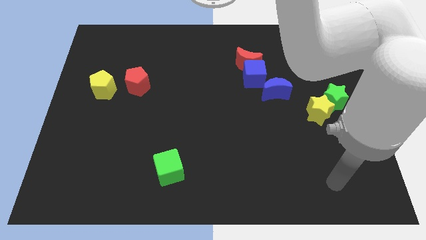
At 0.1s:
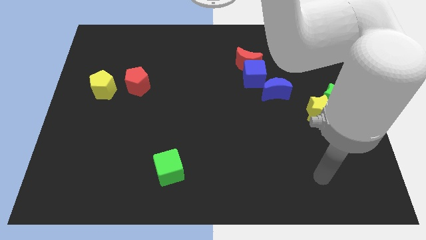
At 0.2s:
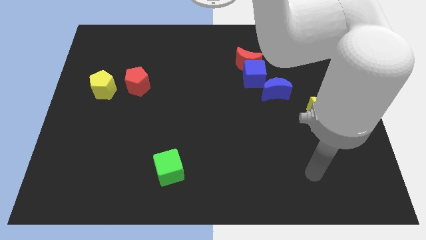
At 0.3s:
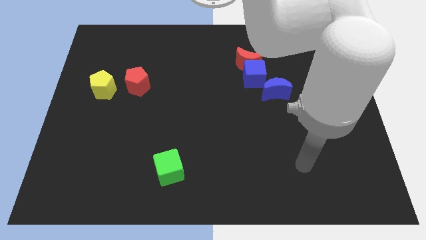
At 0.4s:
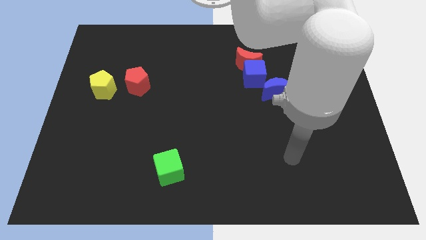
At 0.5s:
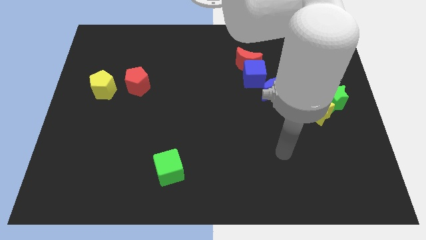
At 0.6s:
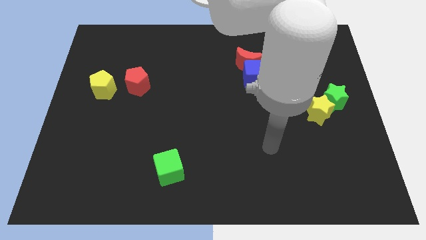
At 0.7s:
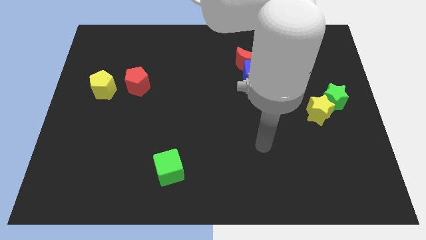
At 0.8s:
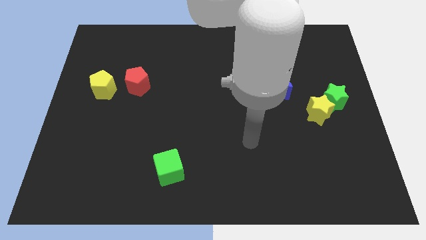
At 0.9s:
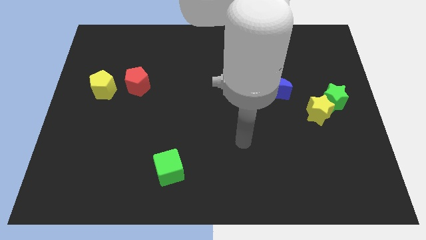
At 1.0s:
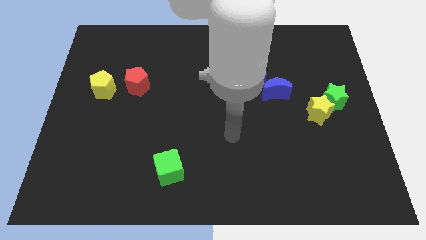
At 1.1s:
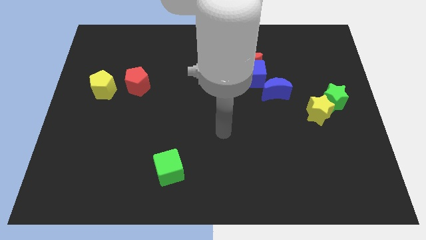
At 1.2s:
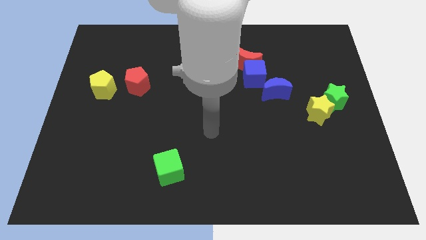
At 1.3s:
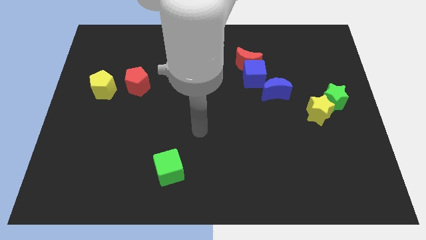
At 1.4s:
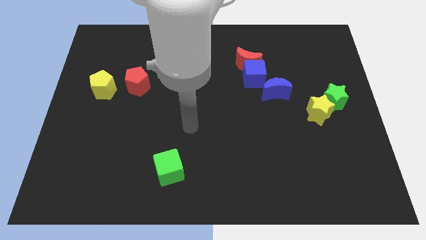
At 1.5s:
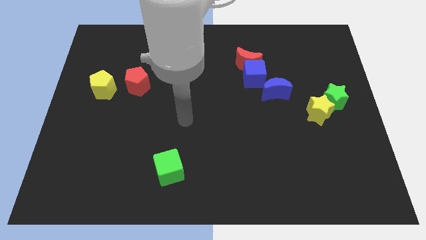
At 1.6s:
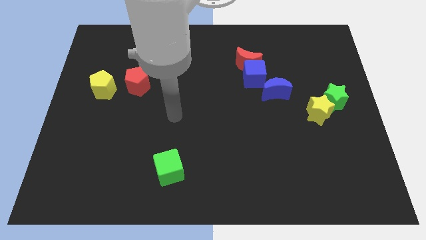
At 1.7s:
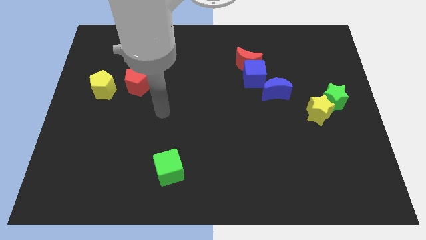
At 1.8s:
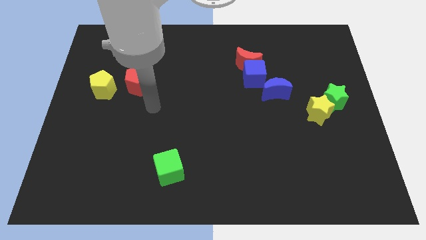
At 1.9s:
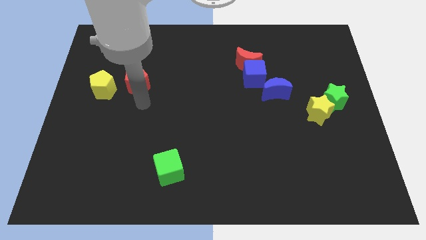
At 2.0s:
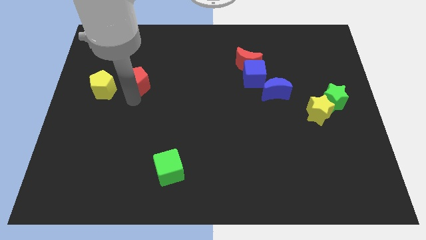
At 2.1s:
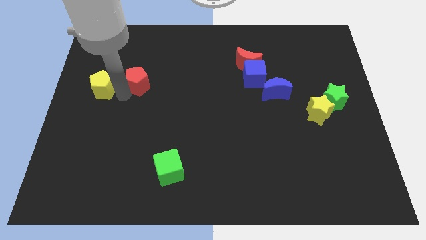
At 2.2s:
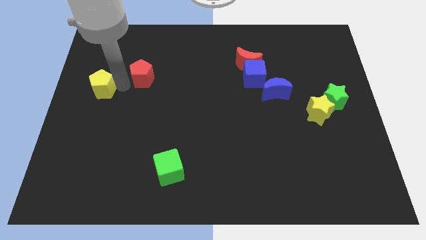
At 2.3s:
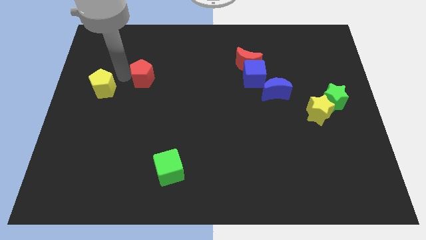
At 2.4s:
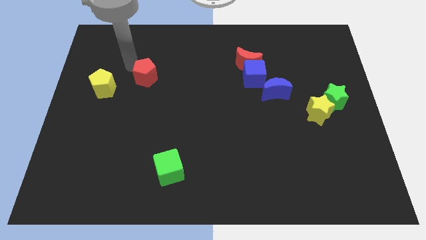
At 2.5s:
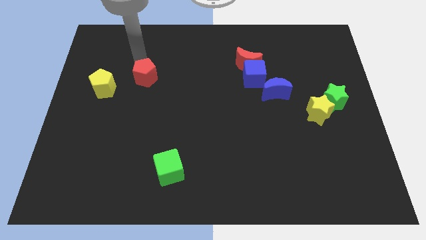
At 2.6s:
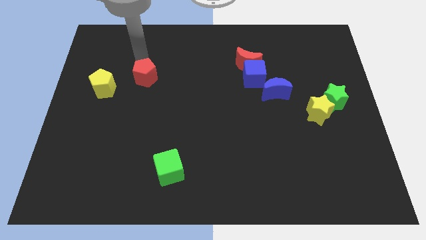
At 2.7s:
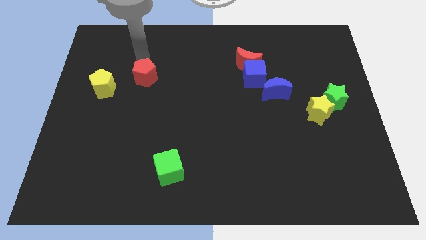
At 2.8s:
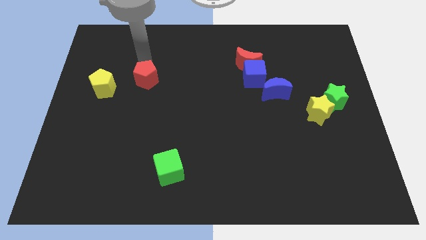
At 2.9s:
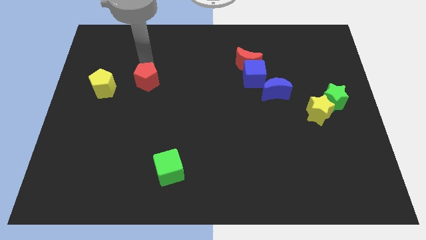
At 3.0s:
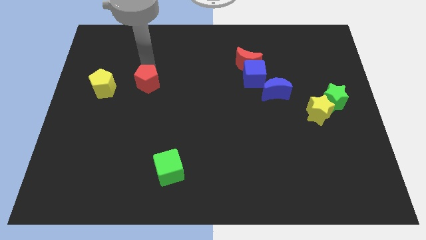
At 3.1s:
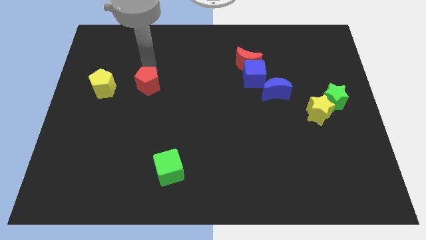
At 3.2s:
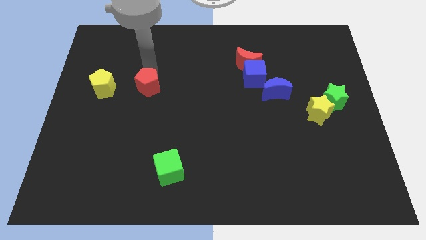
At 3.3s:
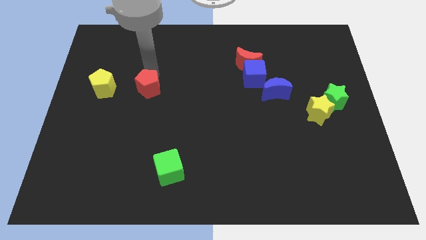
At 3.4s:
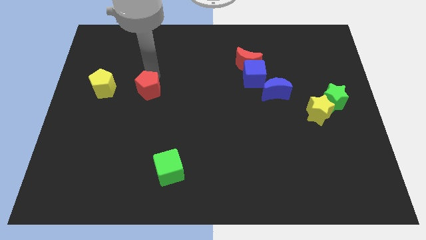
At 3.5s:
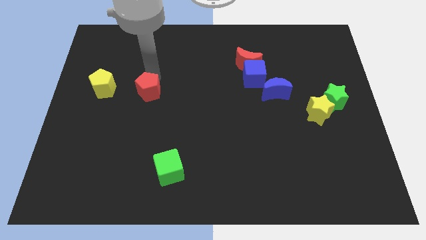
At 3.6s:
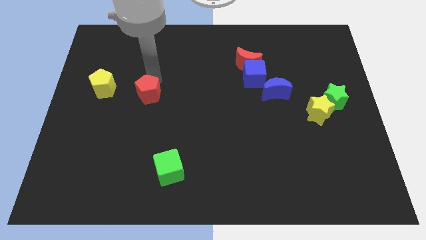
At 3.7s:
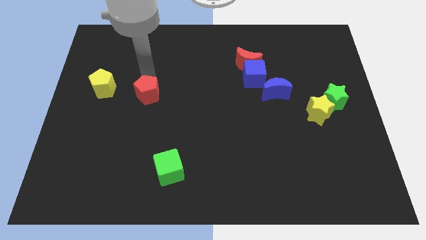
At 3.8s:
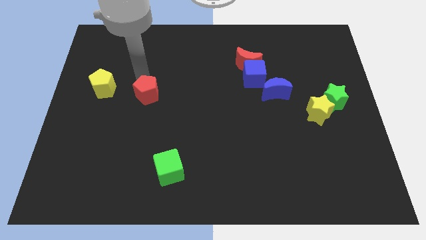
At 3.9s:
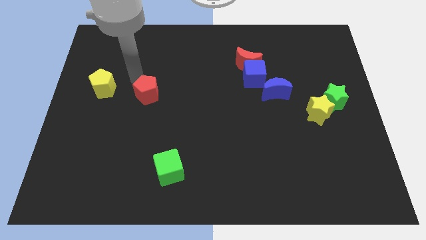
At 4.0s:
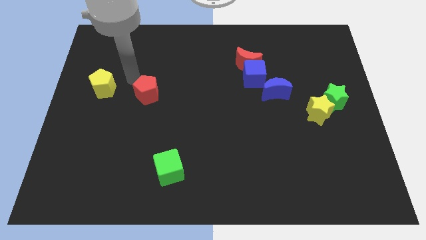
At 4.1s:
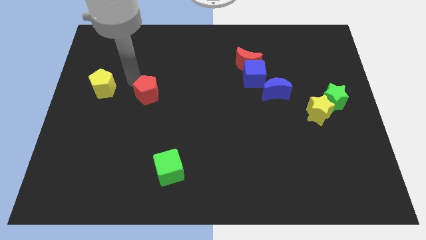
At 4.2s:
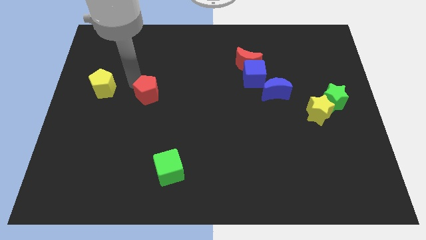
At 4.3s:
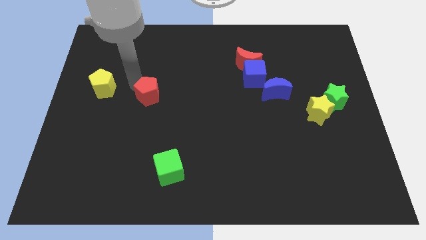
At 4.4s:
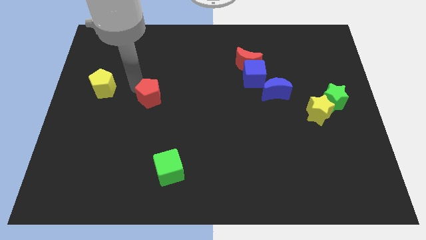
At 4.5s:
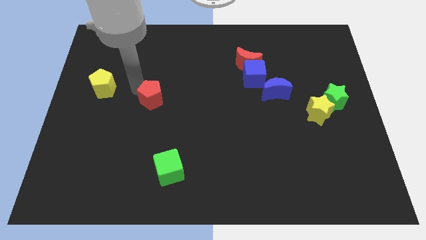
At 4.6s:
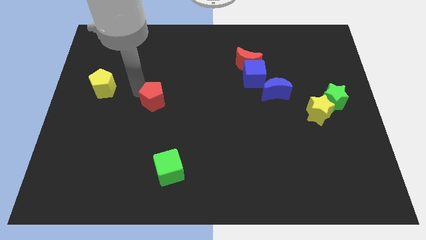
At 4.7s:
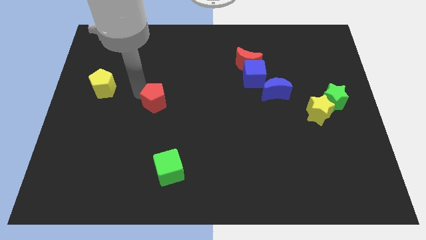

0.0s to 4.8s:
move the red pentagon a bit down and right diagonally

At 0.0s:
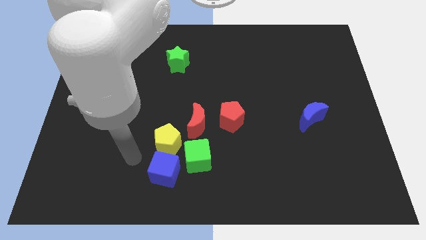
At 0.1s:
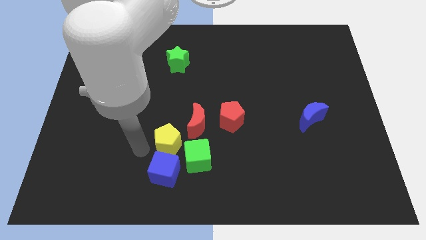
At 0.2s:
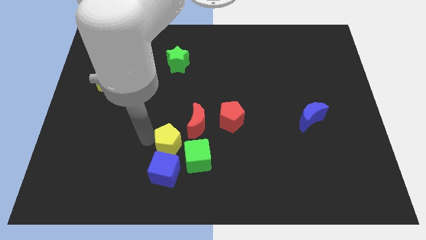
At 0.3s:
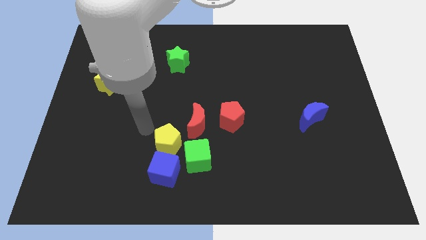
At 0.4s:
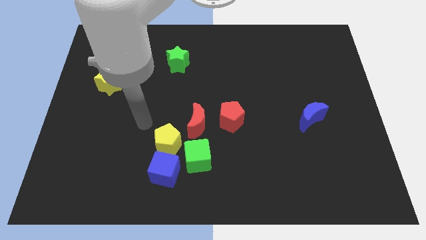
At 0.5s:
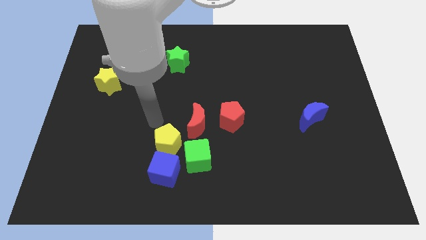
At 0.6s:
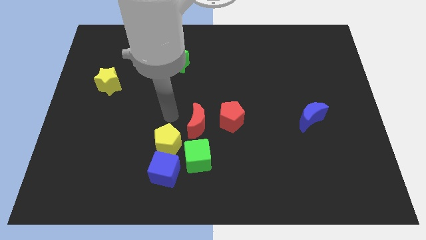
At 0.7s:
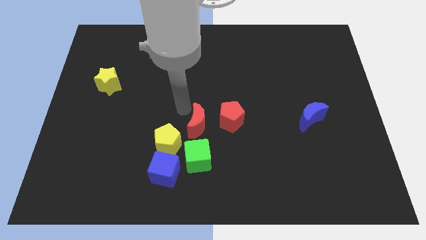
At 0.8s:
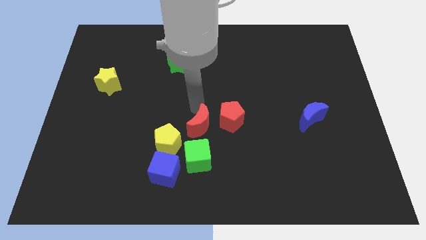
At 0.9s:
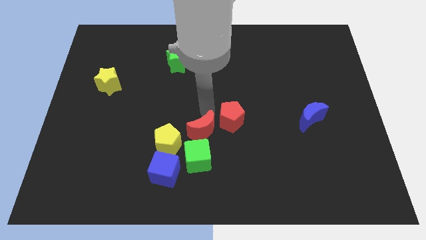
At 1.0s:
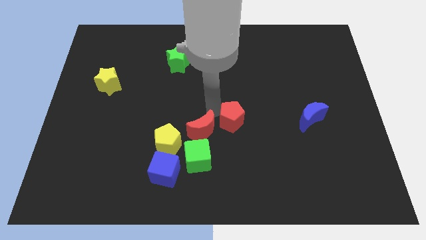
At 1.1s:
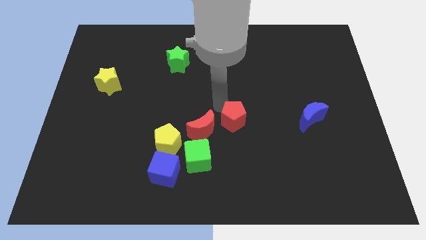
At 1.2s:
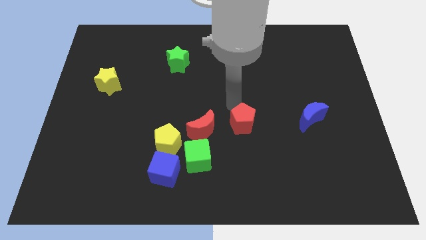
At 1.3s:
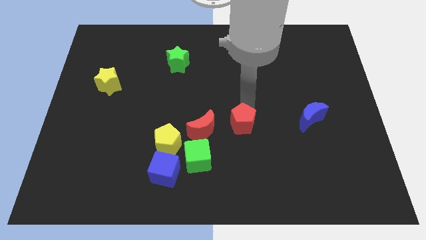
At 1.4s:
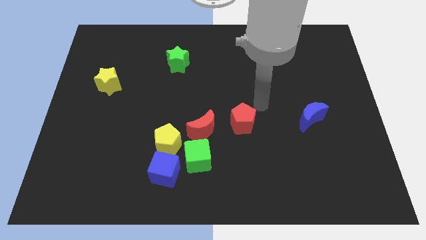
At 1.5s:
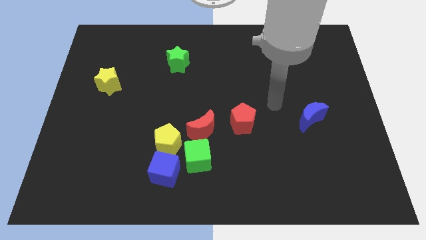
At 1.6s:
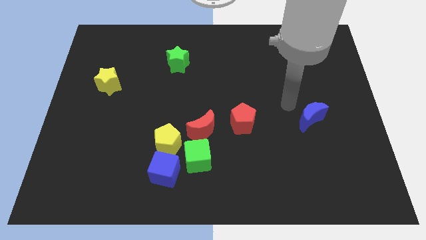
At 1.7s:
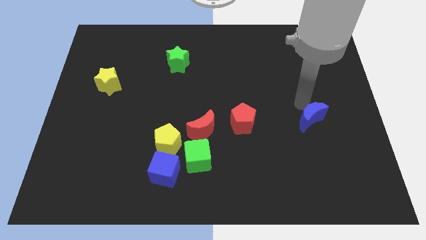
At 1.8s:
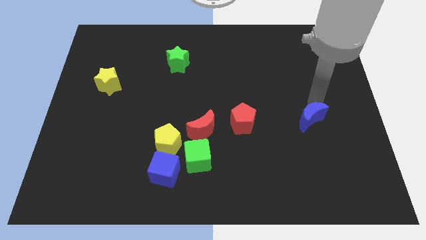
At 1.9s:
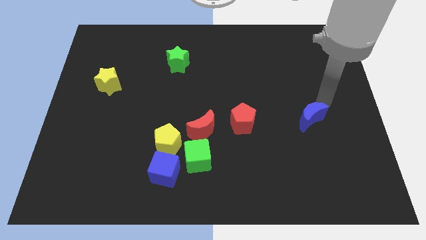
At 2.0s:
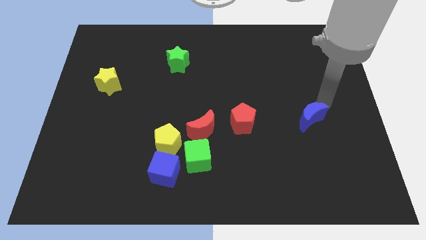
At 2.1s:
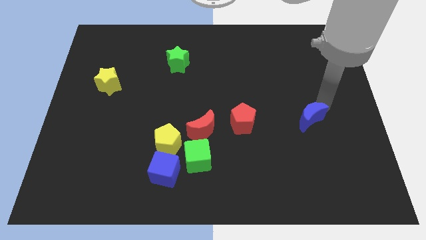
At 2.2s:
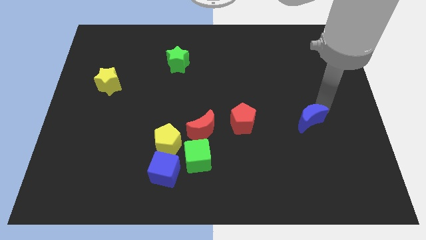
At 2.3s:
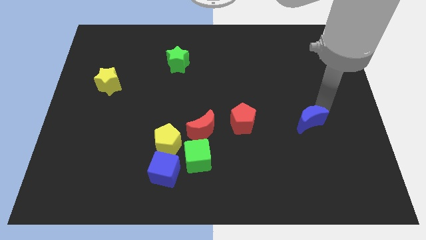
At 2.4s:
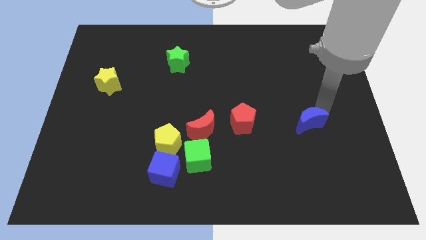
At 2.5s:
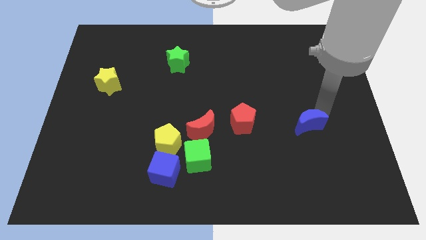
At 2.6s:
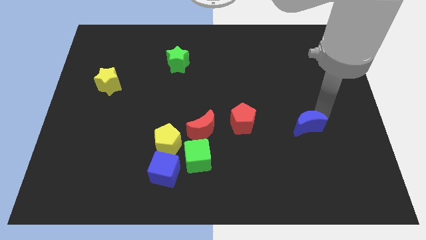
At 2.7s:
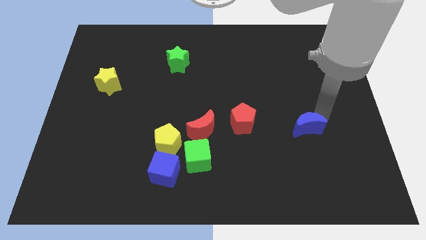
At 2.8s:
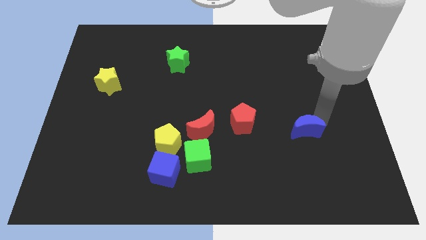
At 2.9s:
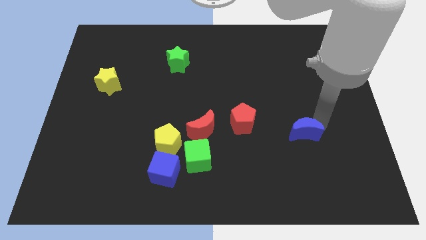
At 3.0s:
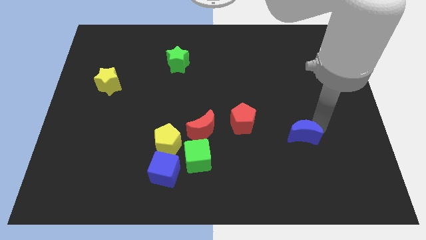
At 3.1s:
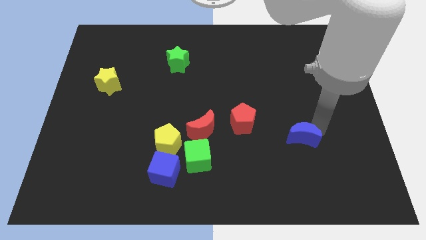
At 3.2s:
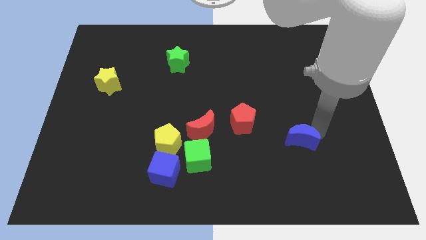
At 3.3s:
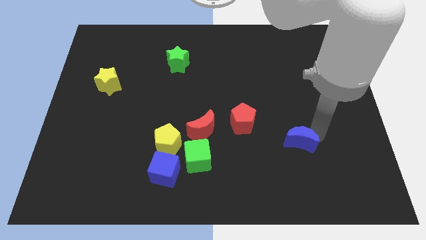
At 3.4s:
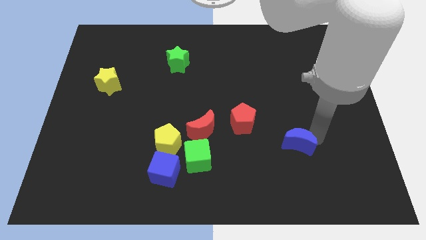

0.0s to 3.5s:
slide the blue moon downwards and to the left diagonally somewhat
